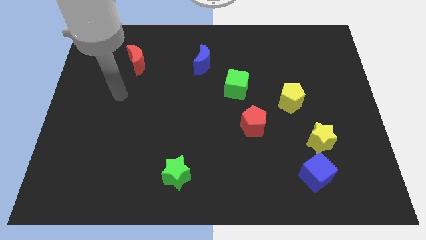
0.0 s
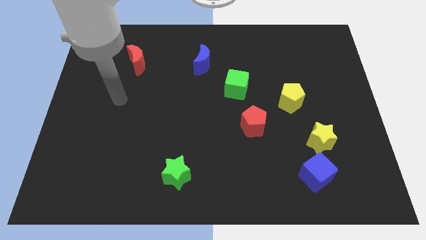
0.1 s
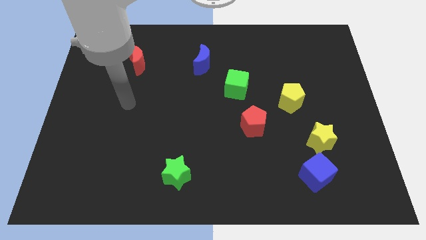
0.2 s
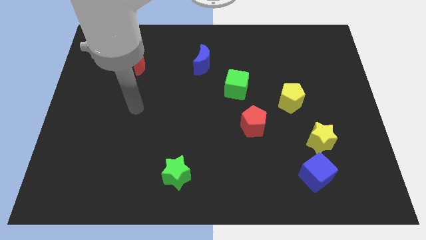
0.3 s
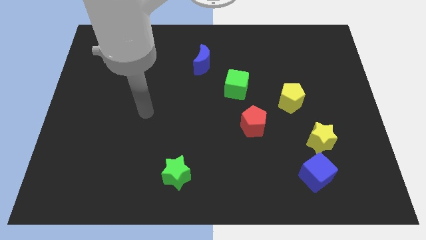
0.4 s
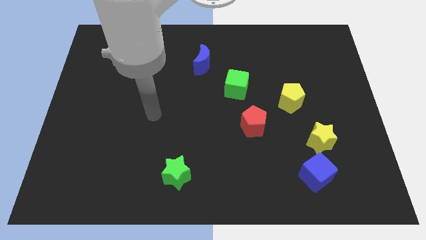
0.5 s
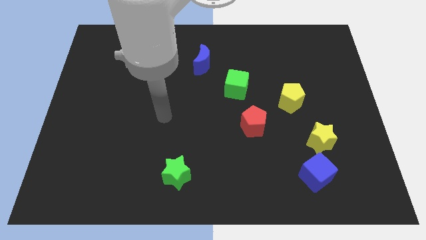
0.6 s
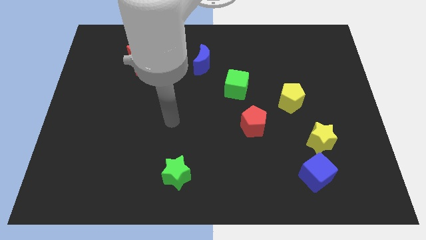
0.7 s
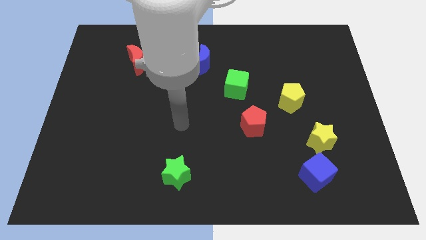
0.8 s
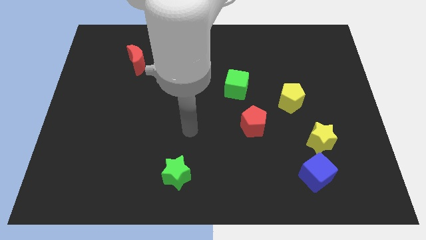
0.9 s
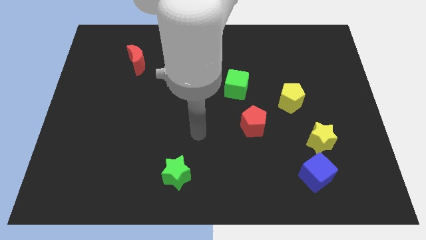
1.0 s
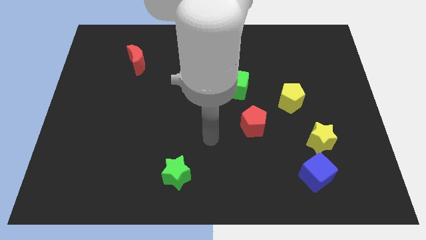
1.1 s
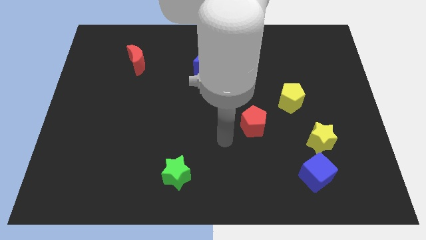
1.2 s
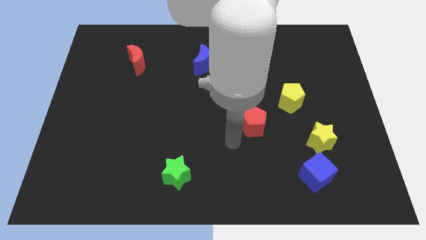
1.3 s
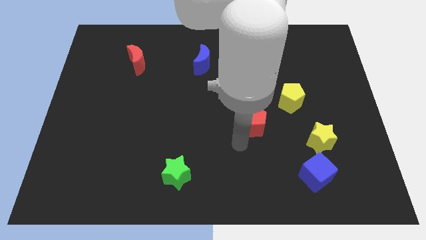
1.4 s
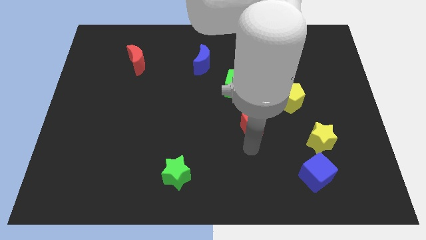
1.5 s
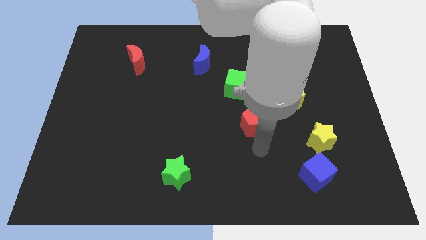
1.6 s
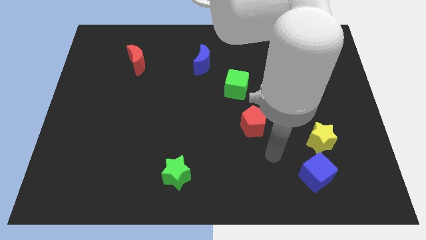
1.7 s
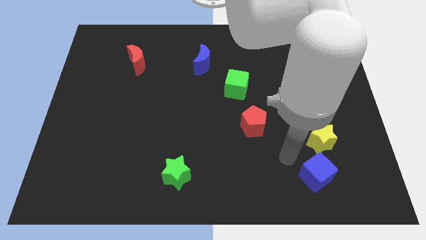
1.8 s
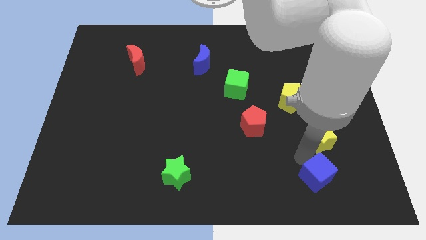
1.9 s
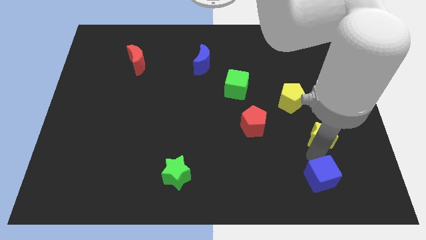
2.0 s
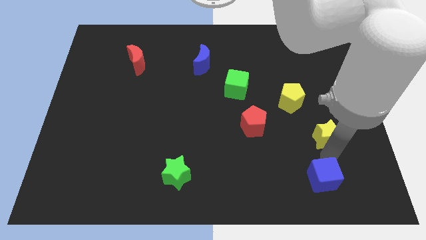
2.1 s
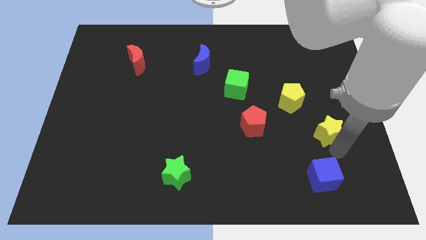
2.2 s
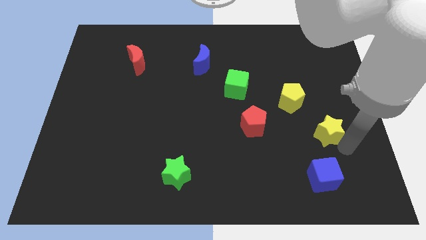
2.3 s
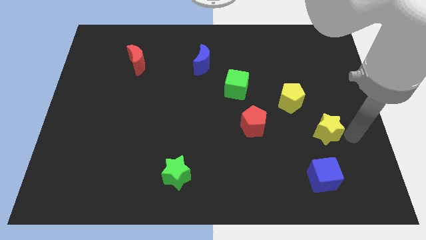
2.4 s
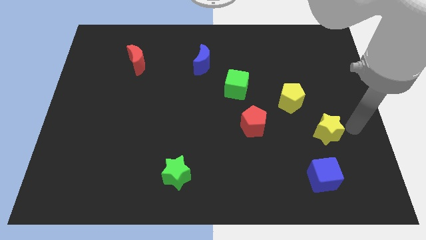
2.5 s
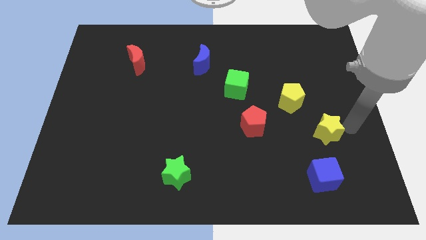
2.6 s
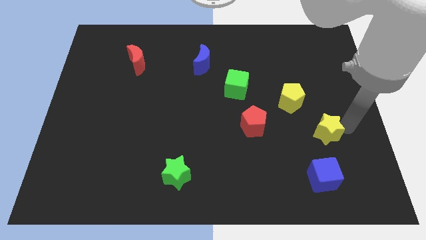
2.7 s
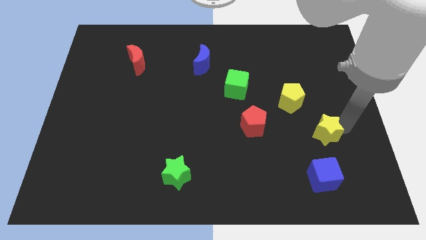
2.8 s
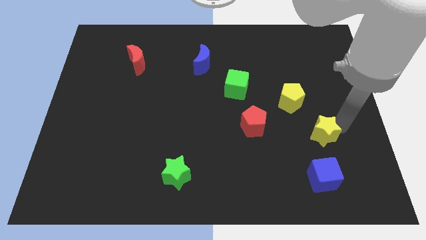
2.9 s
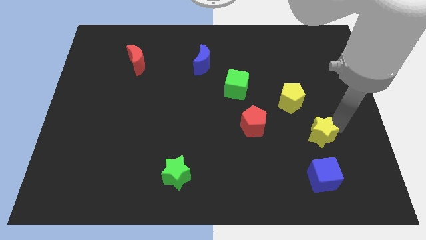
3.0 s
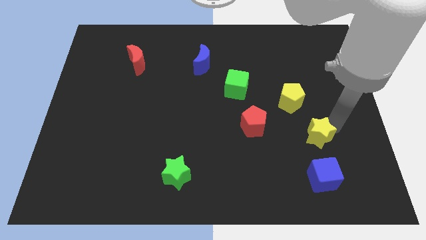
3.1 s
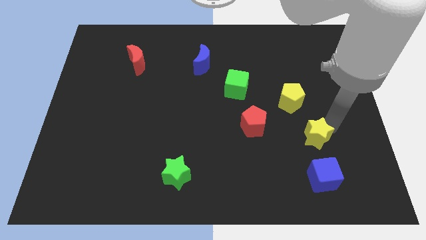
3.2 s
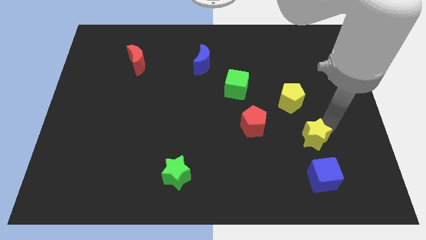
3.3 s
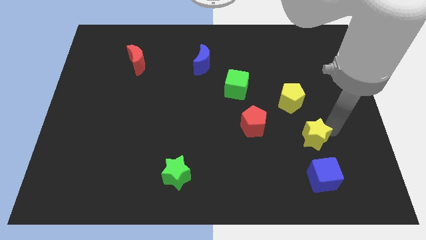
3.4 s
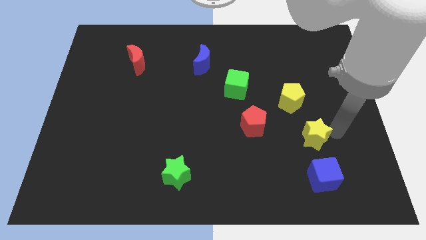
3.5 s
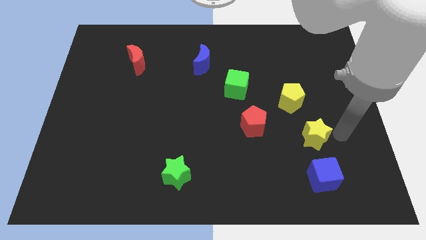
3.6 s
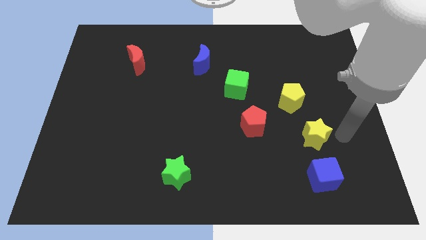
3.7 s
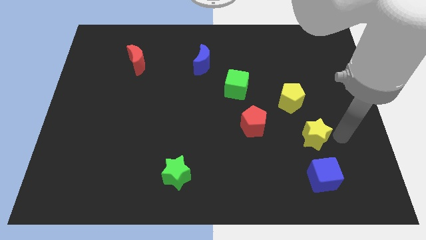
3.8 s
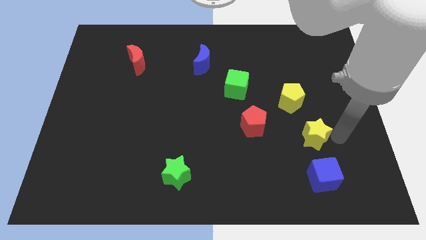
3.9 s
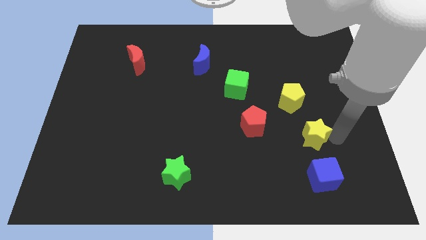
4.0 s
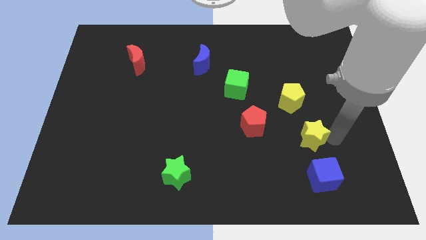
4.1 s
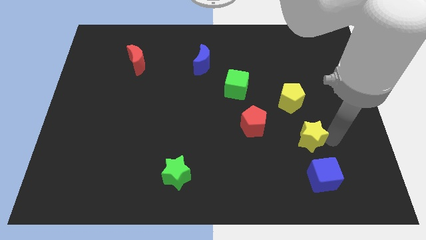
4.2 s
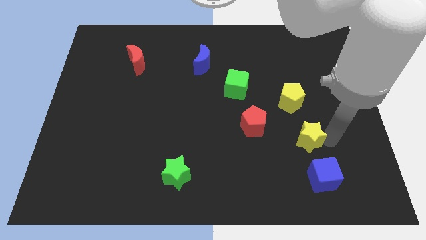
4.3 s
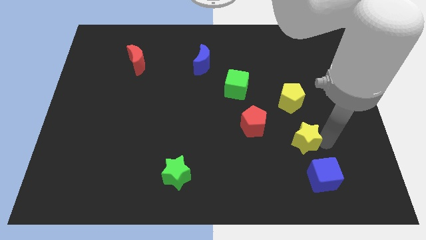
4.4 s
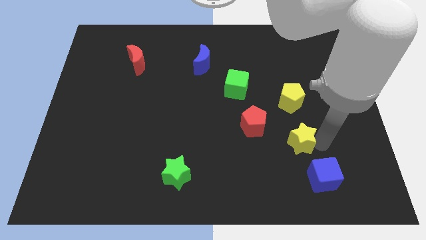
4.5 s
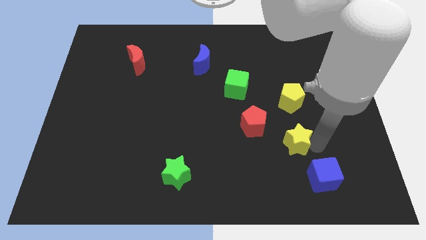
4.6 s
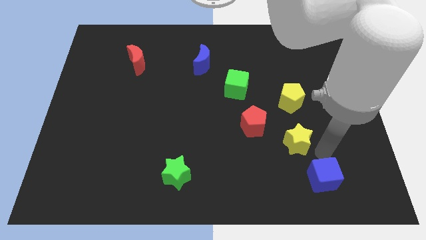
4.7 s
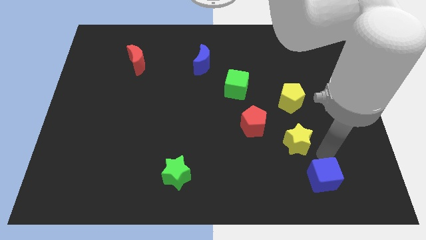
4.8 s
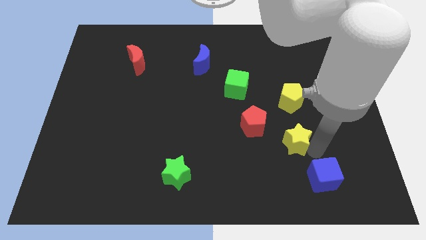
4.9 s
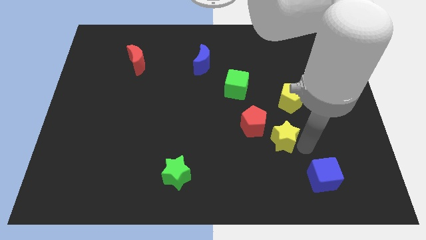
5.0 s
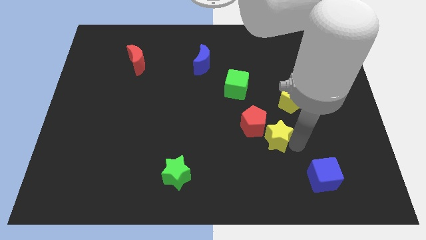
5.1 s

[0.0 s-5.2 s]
move the yellow star to the red pentagon

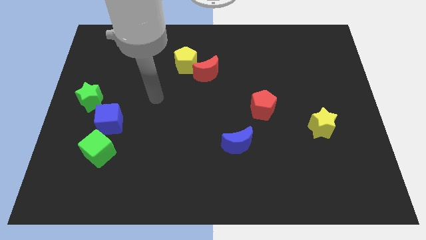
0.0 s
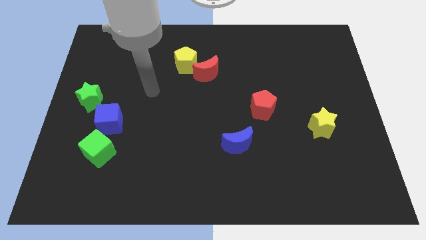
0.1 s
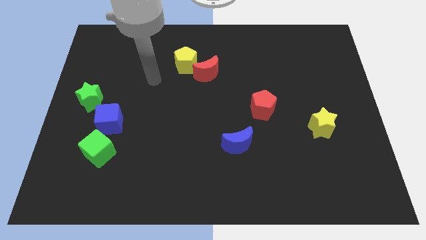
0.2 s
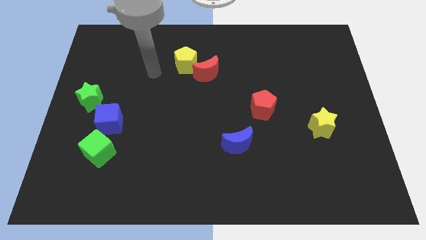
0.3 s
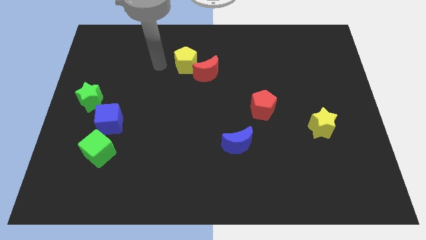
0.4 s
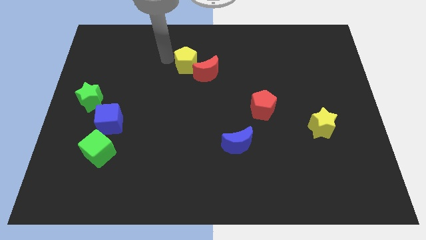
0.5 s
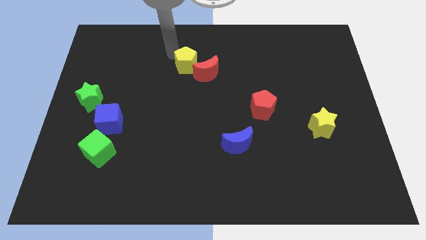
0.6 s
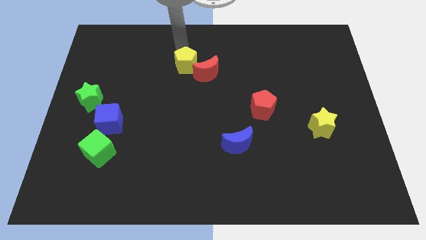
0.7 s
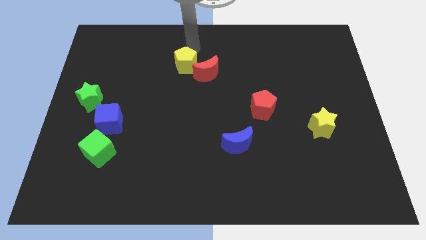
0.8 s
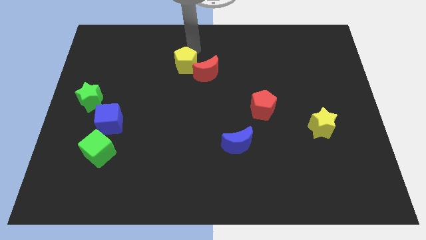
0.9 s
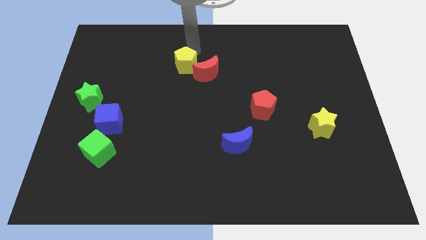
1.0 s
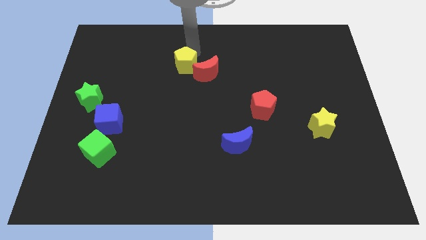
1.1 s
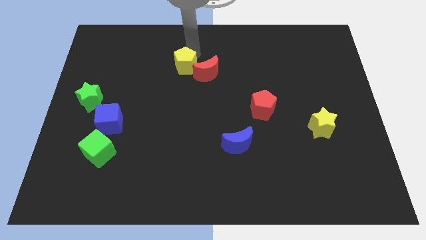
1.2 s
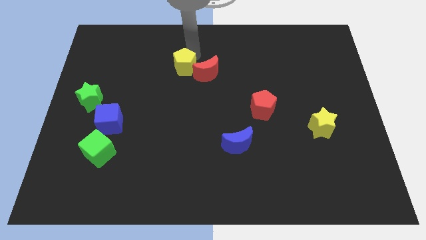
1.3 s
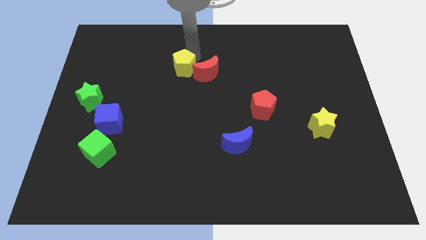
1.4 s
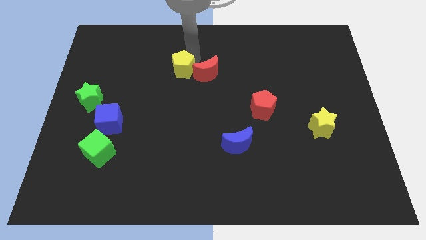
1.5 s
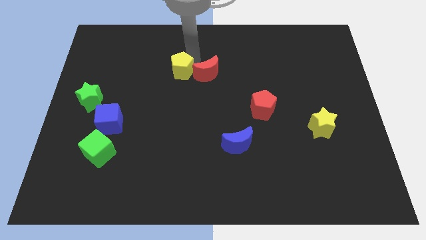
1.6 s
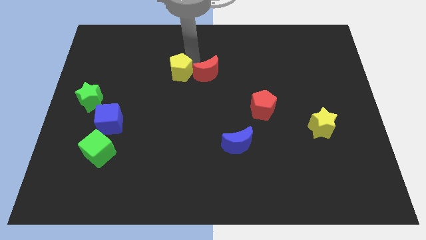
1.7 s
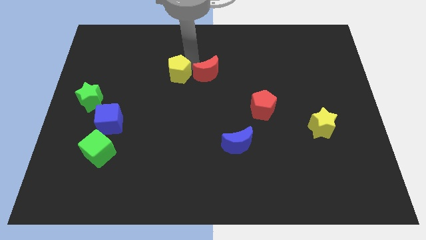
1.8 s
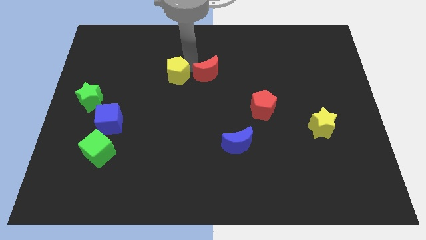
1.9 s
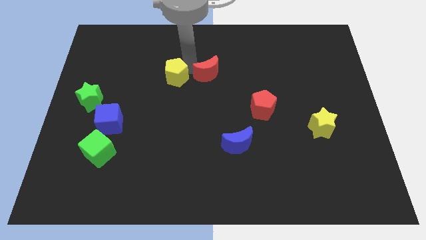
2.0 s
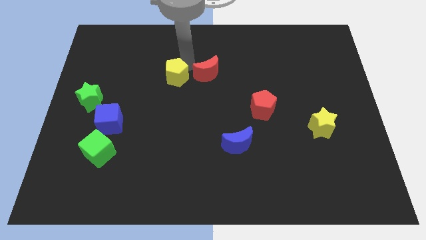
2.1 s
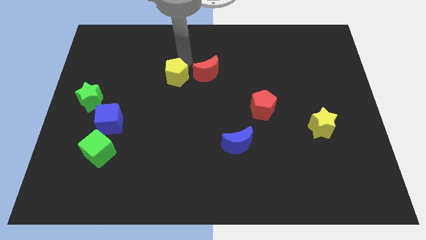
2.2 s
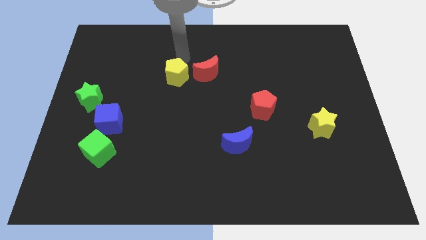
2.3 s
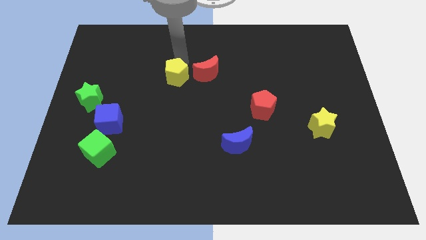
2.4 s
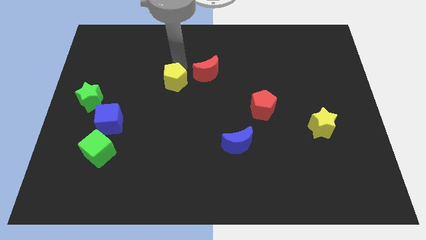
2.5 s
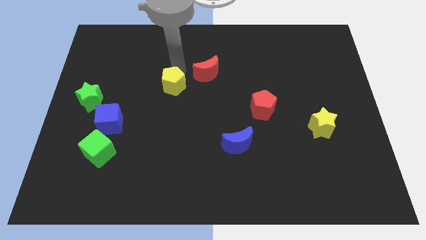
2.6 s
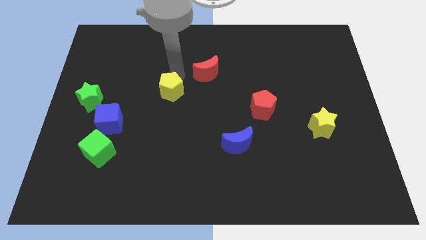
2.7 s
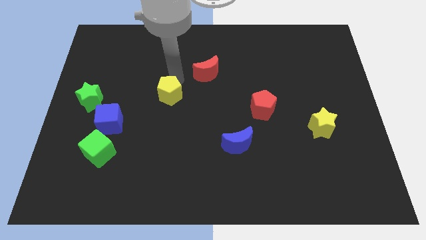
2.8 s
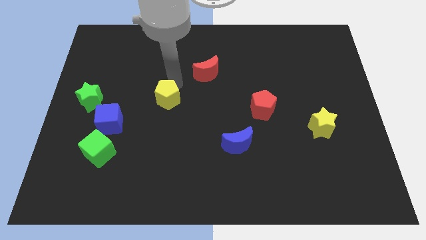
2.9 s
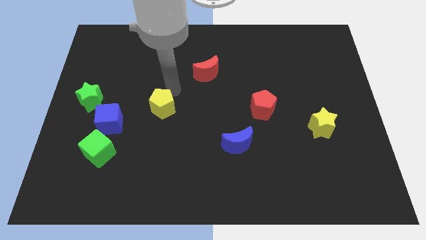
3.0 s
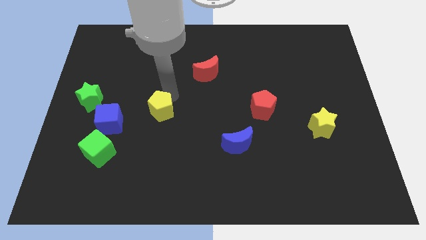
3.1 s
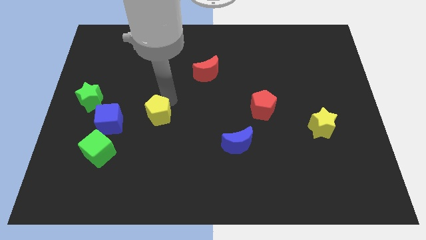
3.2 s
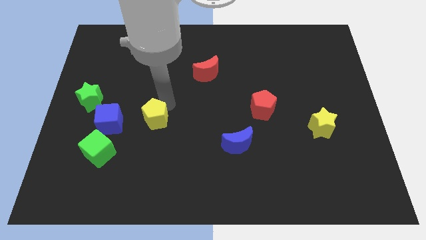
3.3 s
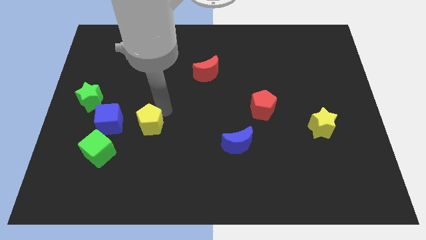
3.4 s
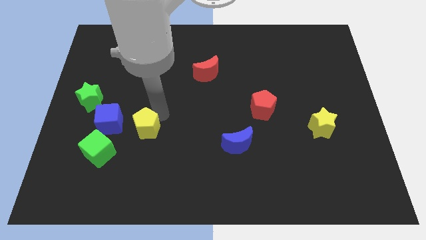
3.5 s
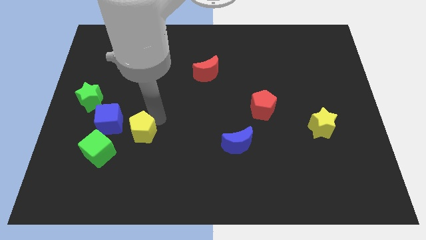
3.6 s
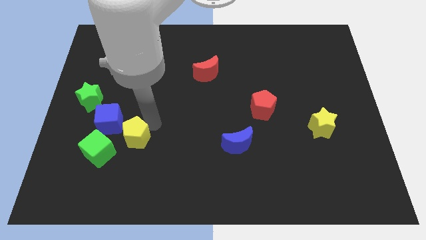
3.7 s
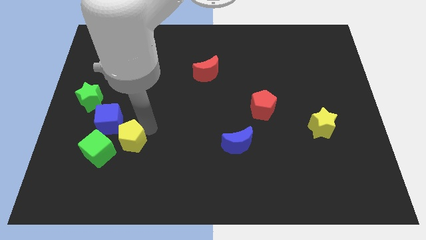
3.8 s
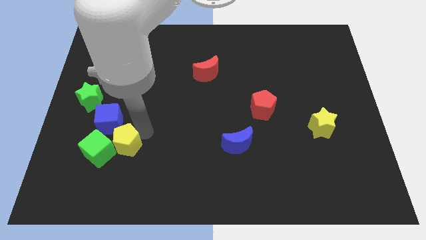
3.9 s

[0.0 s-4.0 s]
push the yellow pentagon close to the green cube
